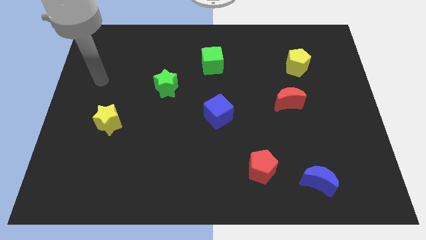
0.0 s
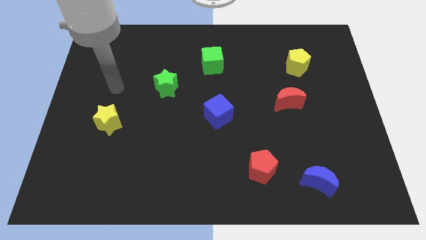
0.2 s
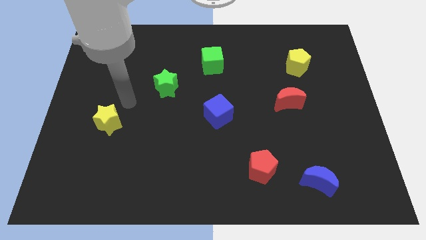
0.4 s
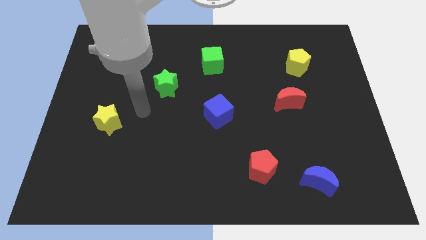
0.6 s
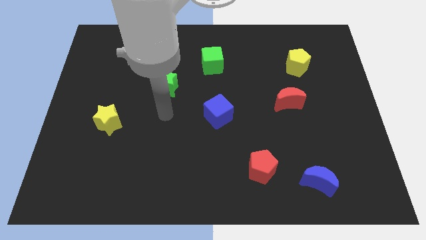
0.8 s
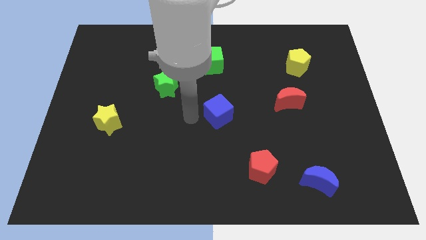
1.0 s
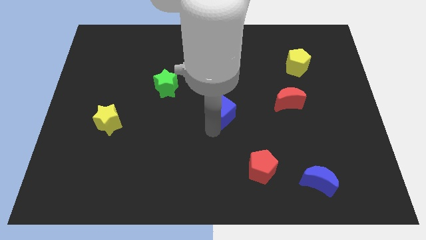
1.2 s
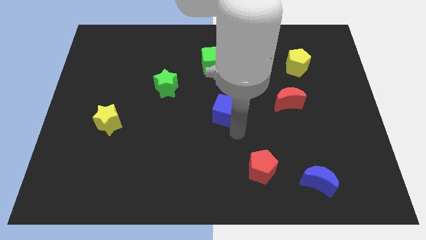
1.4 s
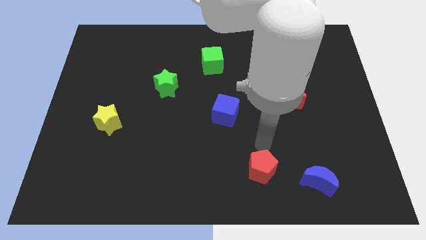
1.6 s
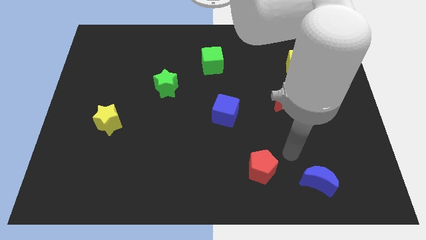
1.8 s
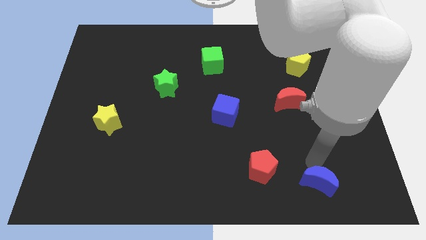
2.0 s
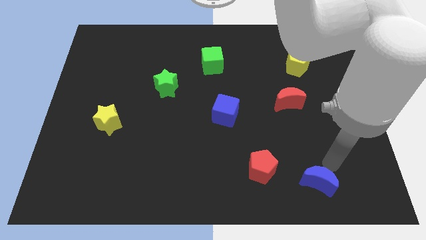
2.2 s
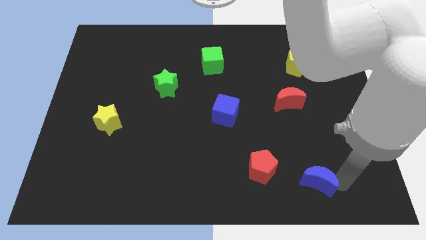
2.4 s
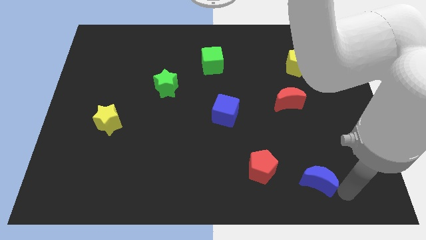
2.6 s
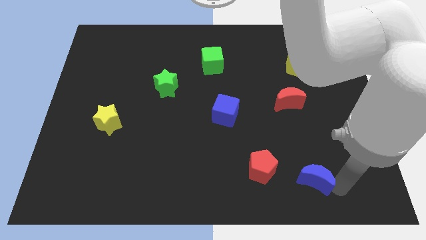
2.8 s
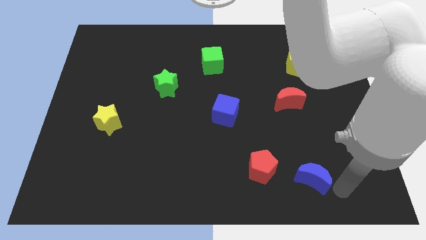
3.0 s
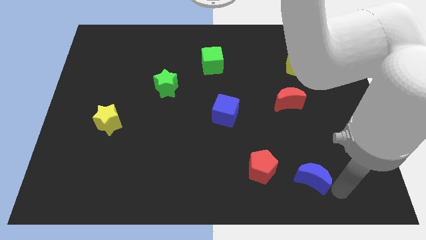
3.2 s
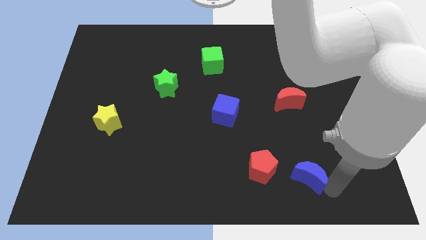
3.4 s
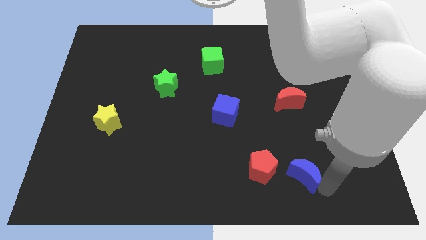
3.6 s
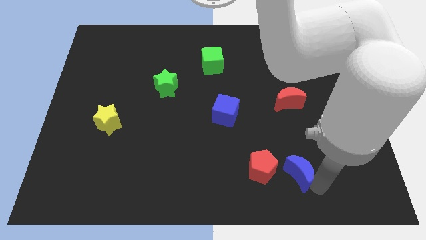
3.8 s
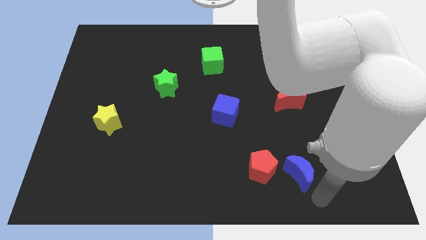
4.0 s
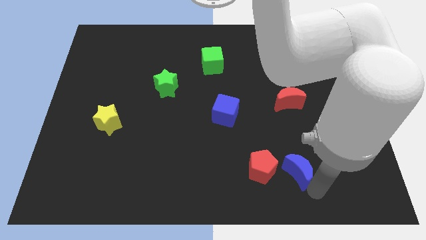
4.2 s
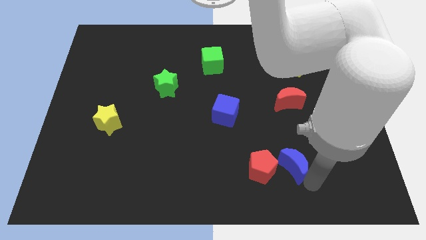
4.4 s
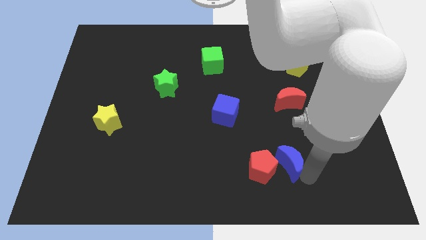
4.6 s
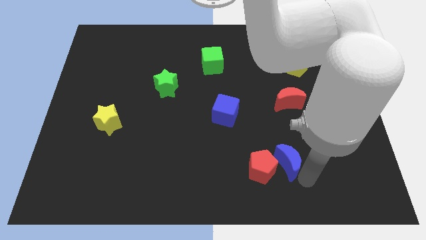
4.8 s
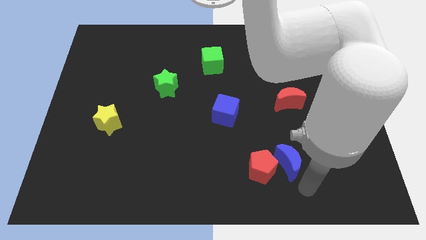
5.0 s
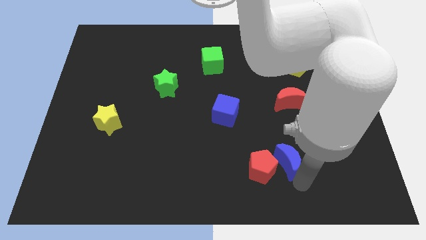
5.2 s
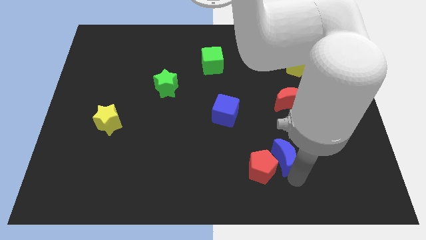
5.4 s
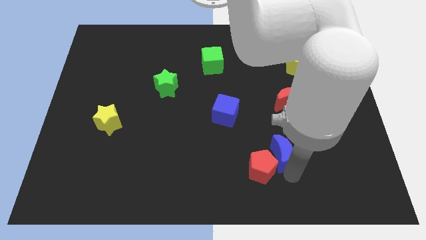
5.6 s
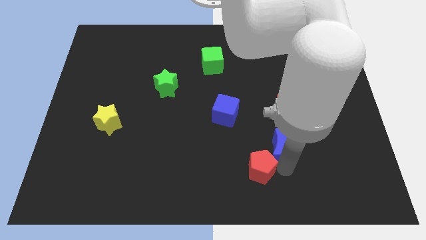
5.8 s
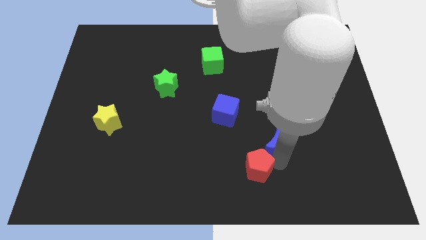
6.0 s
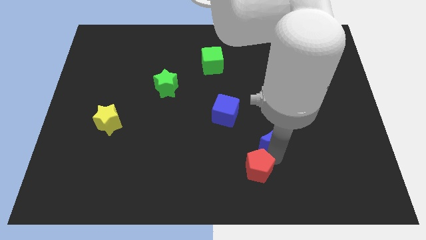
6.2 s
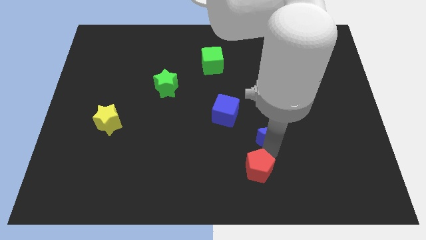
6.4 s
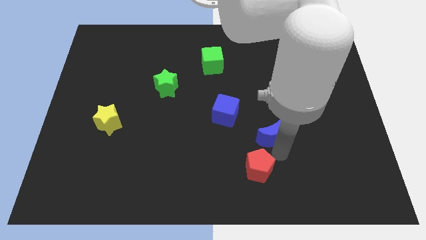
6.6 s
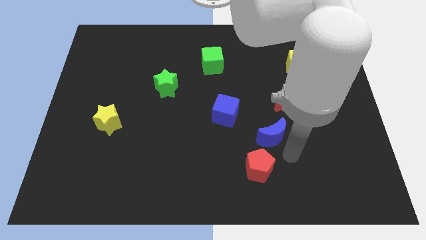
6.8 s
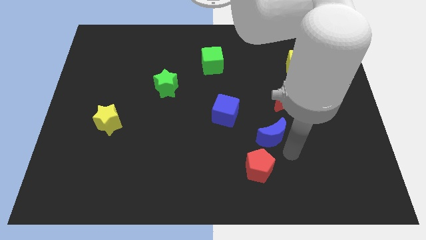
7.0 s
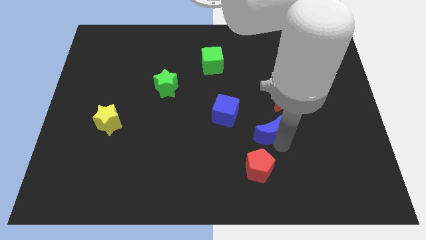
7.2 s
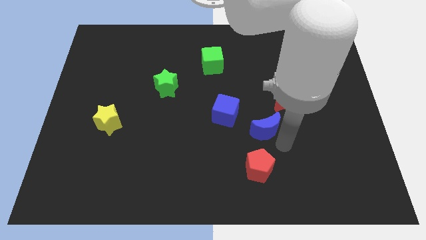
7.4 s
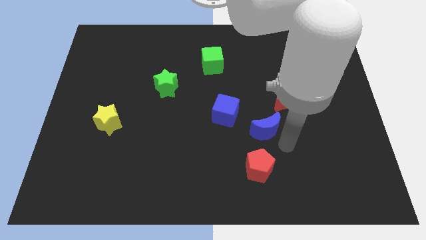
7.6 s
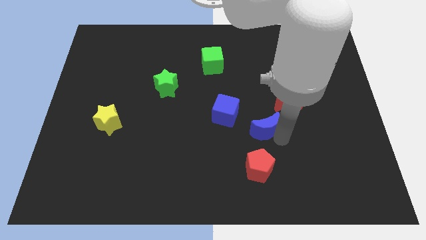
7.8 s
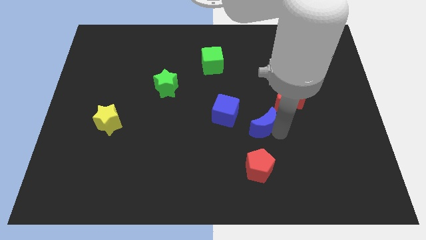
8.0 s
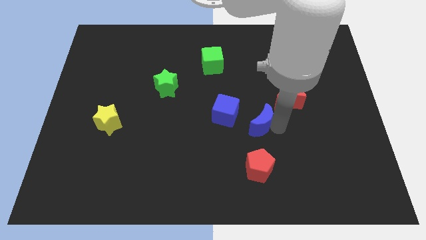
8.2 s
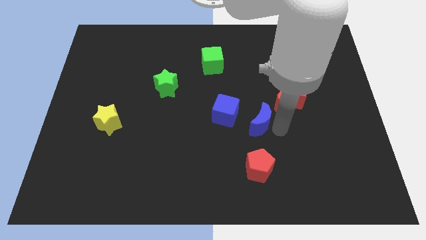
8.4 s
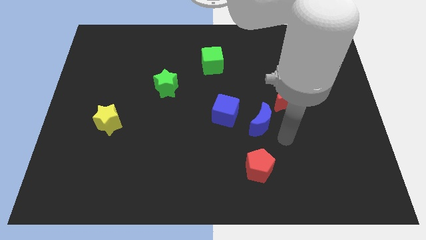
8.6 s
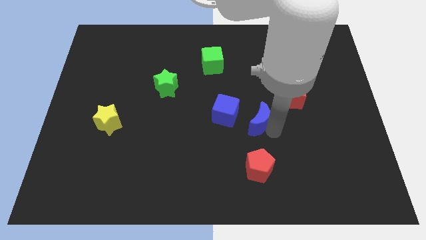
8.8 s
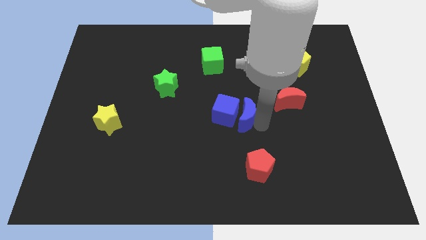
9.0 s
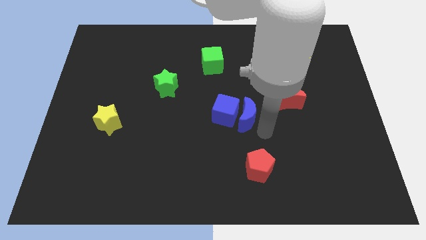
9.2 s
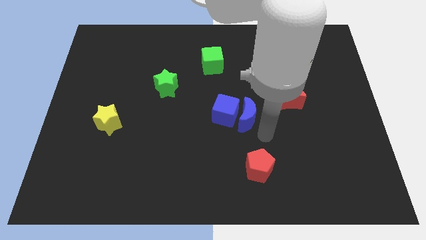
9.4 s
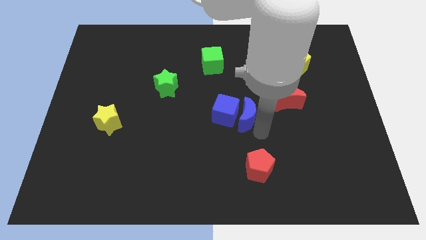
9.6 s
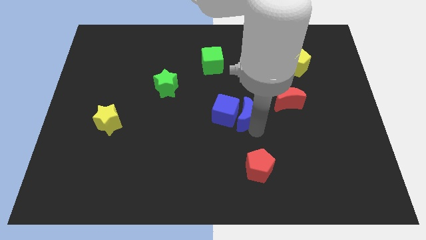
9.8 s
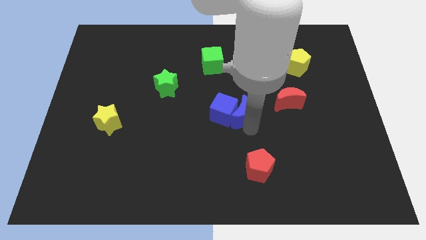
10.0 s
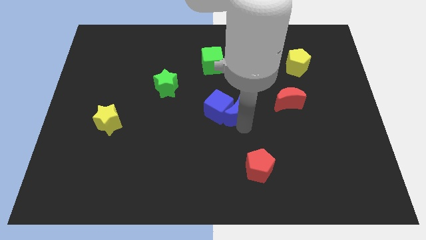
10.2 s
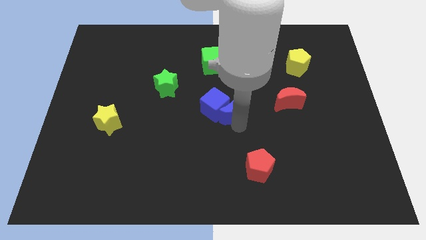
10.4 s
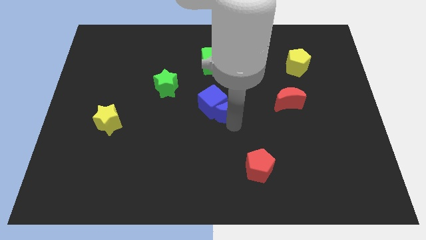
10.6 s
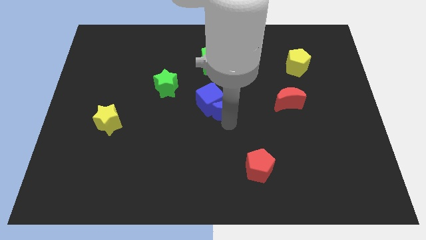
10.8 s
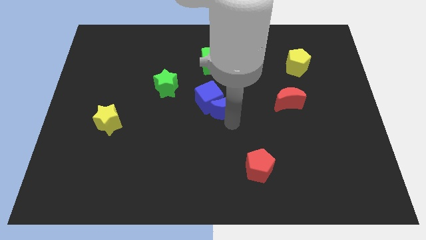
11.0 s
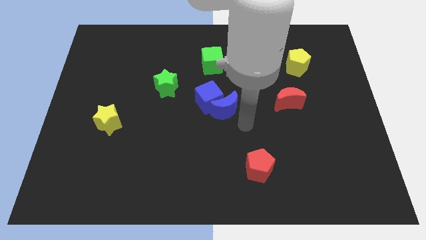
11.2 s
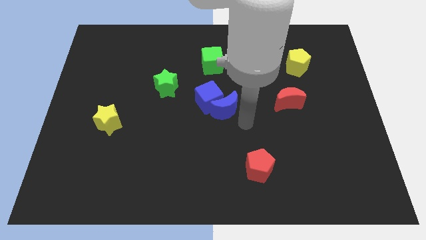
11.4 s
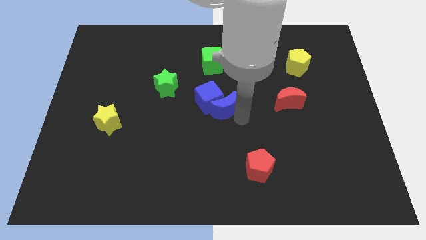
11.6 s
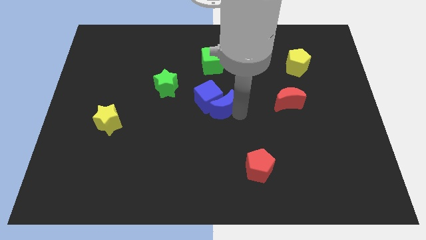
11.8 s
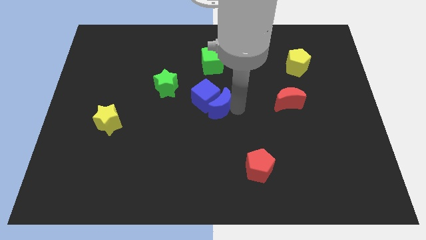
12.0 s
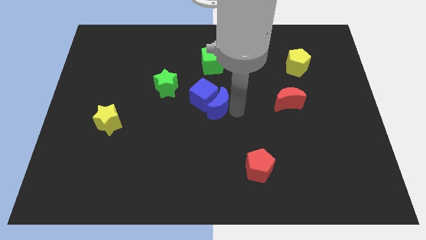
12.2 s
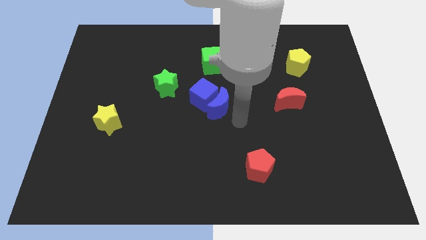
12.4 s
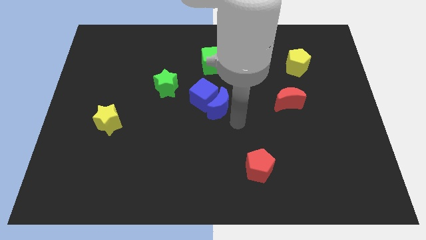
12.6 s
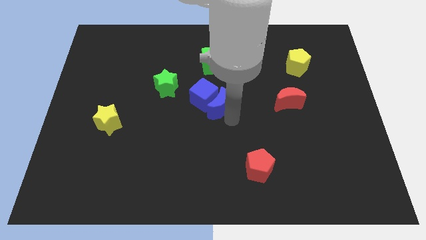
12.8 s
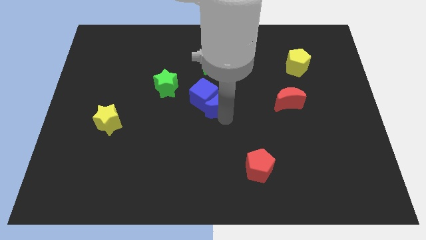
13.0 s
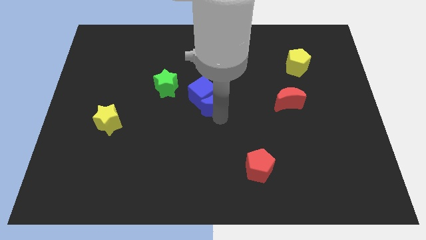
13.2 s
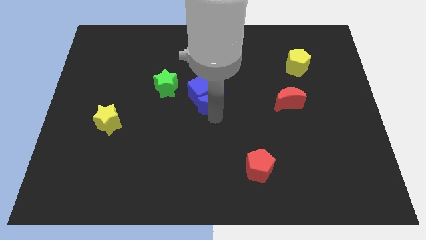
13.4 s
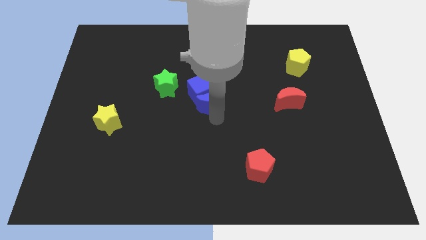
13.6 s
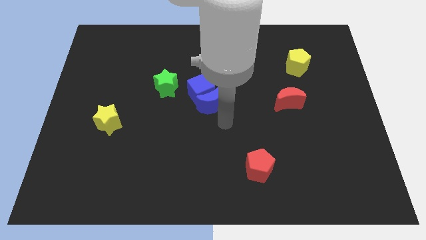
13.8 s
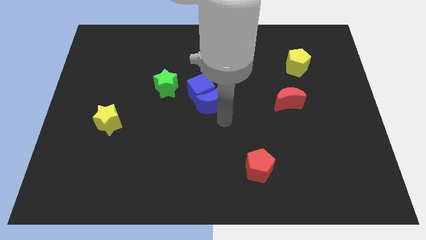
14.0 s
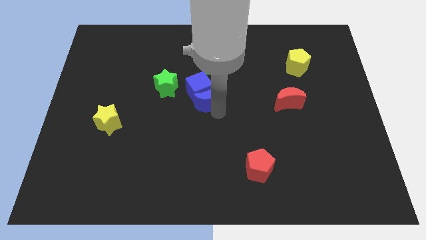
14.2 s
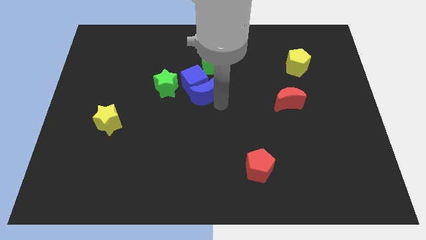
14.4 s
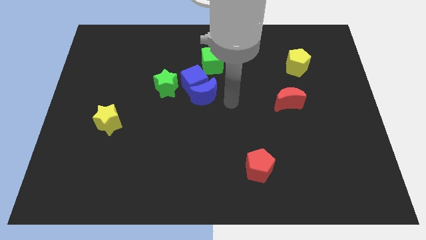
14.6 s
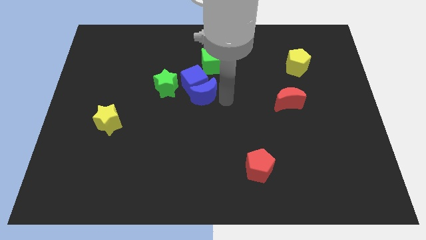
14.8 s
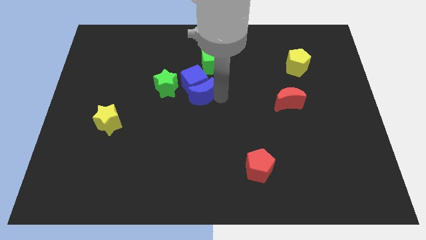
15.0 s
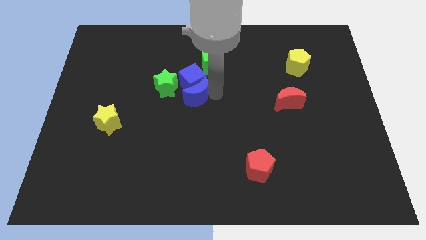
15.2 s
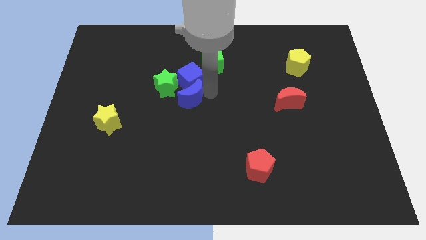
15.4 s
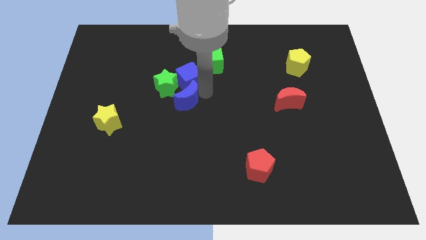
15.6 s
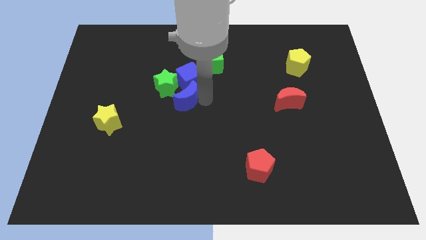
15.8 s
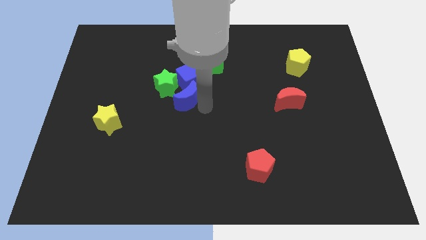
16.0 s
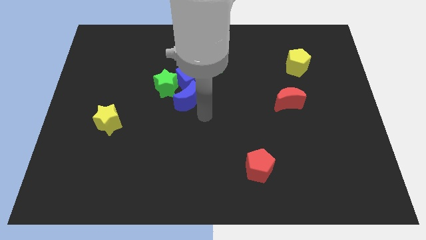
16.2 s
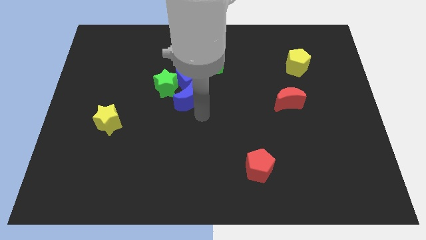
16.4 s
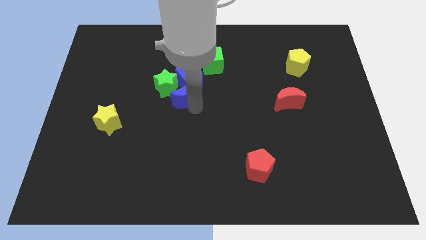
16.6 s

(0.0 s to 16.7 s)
move the blue moon to the green star
